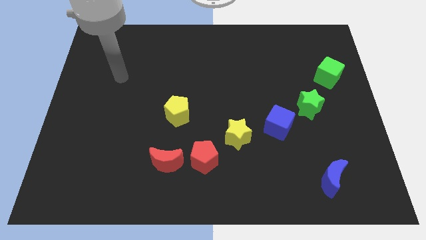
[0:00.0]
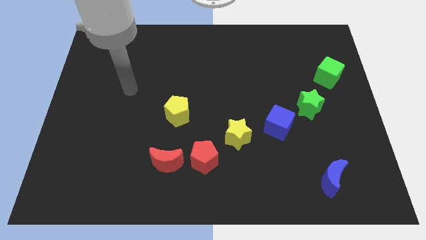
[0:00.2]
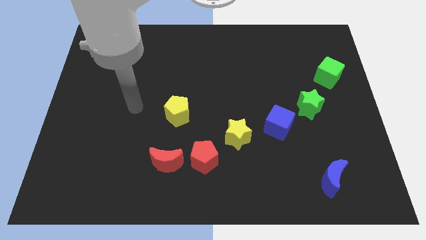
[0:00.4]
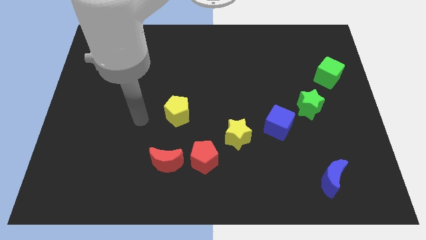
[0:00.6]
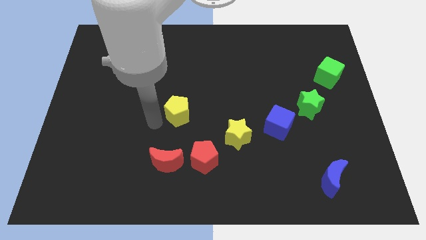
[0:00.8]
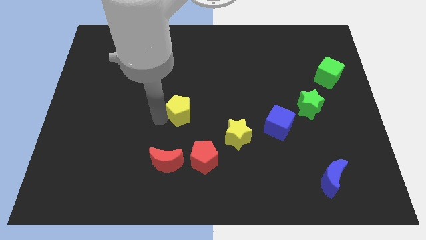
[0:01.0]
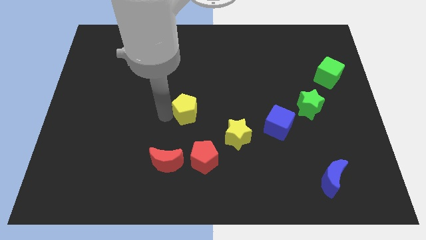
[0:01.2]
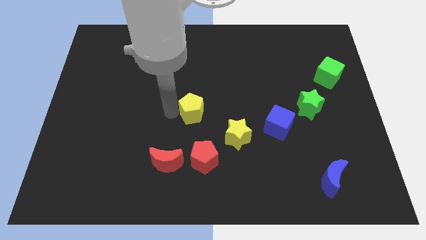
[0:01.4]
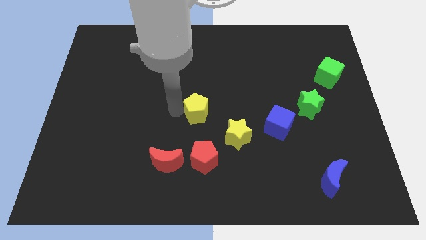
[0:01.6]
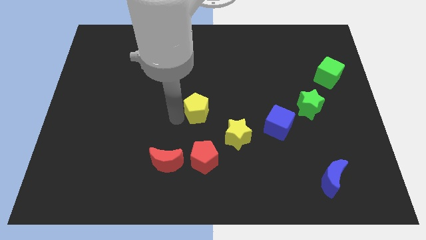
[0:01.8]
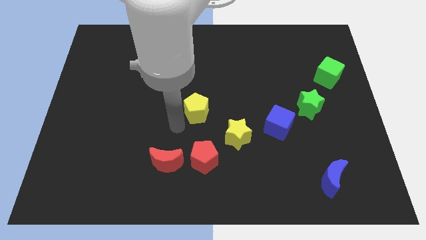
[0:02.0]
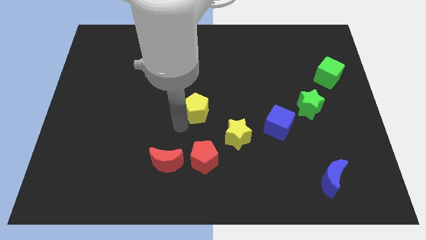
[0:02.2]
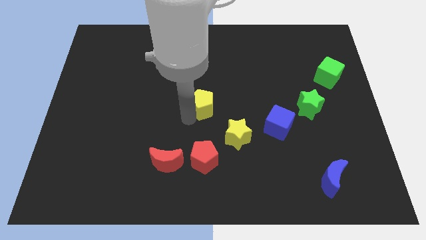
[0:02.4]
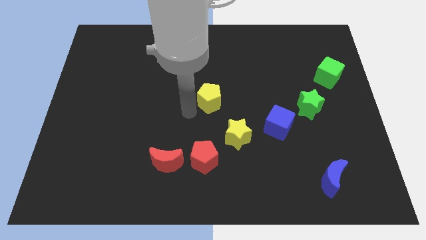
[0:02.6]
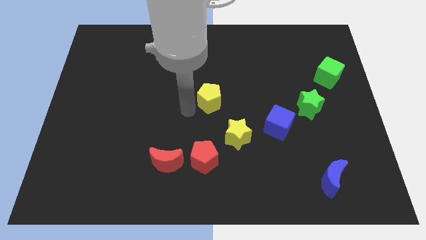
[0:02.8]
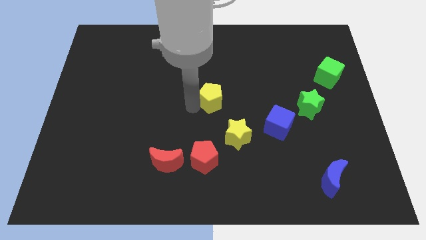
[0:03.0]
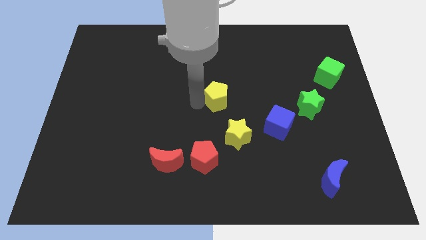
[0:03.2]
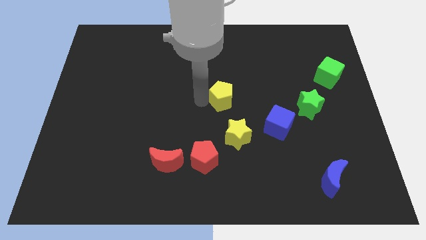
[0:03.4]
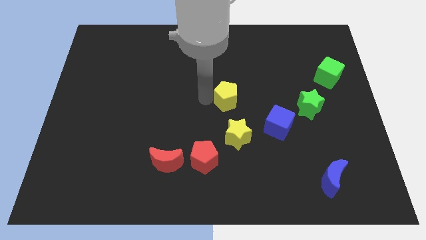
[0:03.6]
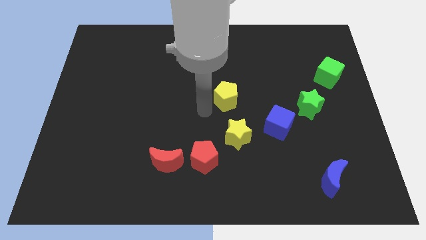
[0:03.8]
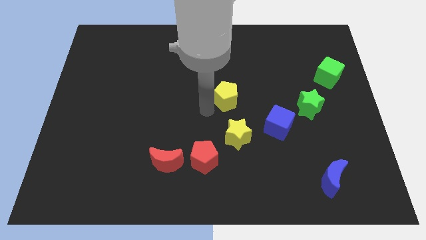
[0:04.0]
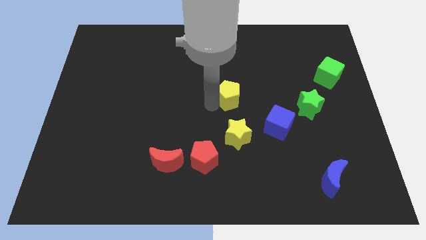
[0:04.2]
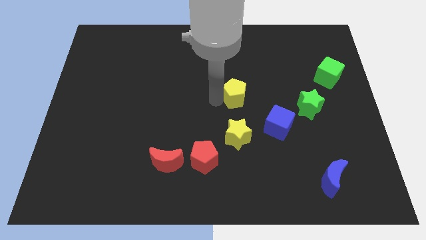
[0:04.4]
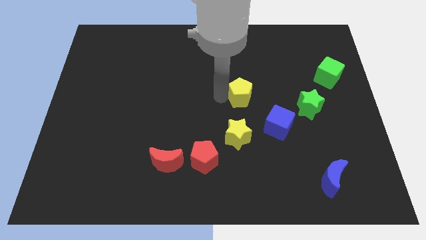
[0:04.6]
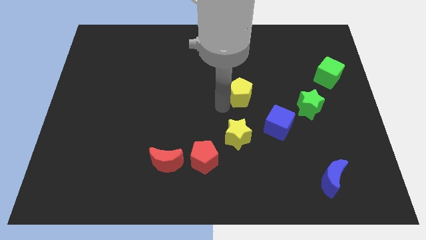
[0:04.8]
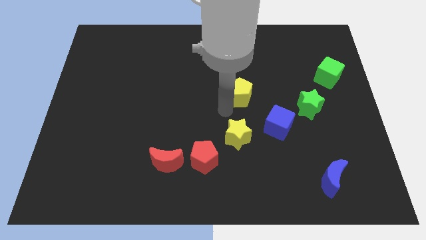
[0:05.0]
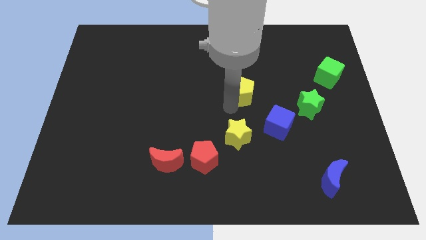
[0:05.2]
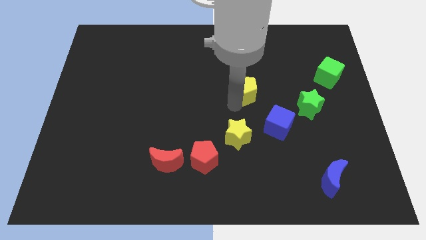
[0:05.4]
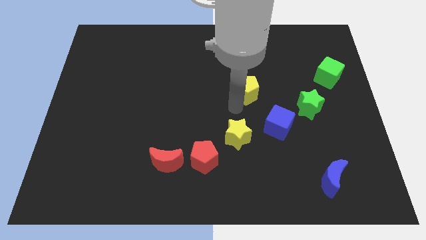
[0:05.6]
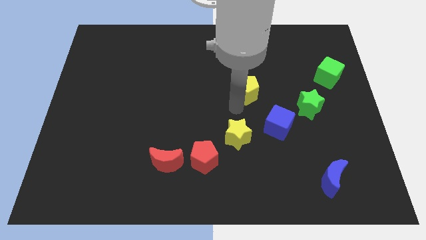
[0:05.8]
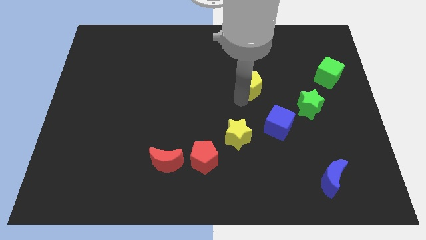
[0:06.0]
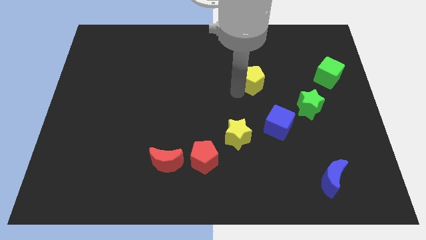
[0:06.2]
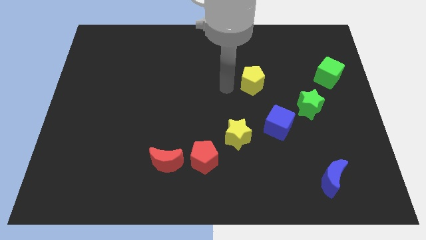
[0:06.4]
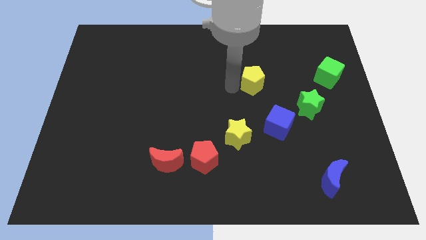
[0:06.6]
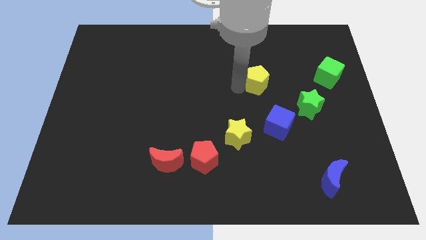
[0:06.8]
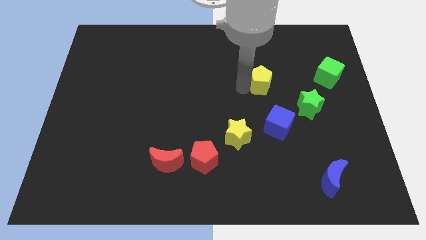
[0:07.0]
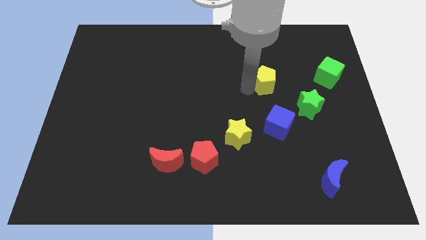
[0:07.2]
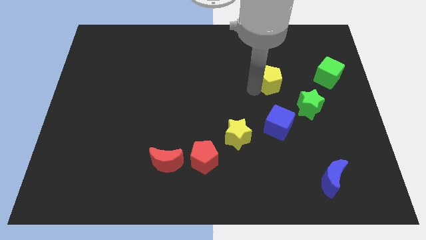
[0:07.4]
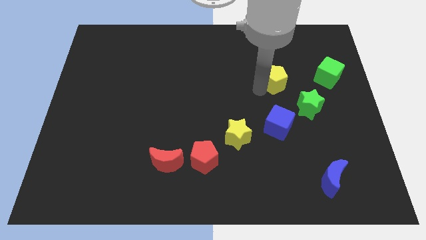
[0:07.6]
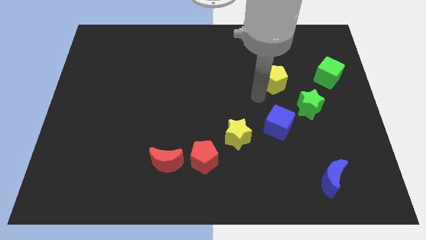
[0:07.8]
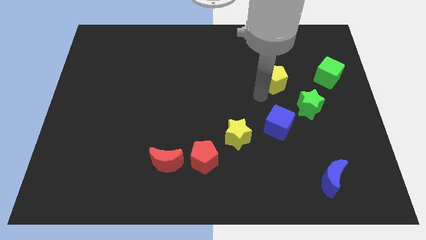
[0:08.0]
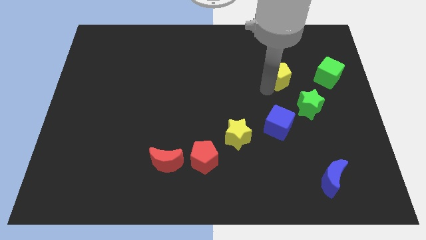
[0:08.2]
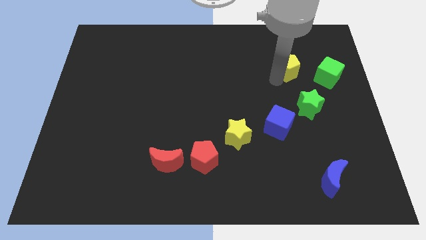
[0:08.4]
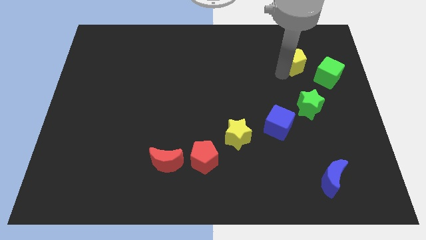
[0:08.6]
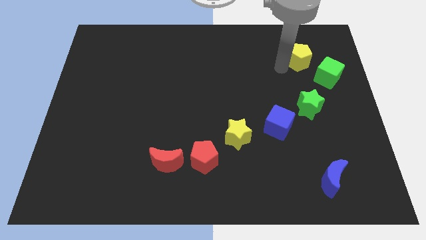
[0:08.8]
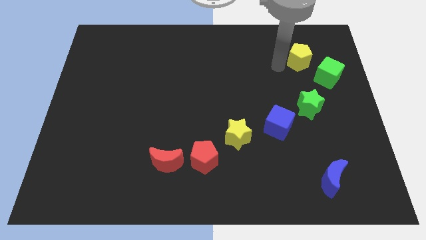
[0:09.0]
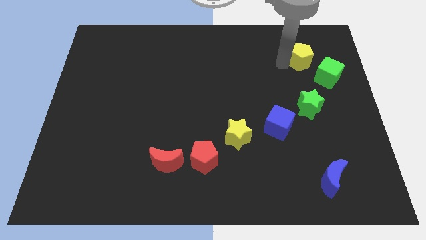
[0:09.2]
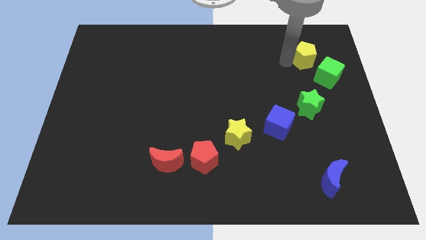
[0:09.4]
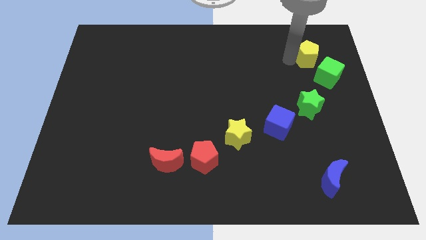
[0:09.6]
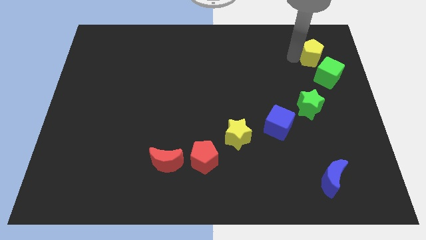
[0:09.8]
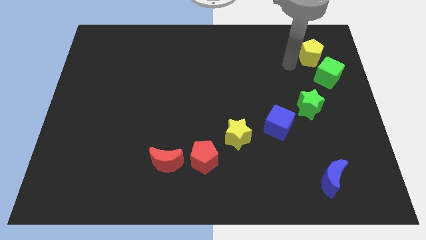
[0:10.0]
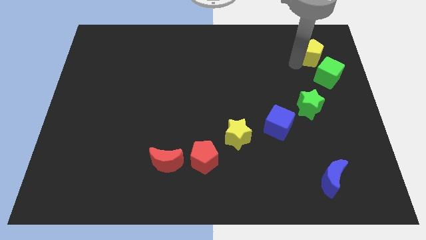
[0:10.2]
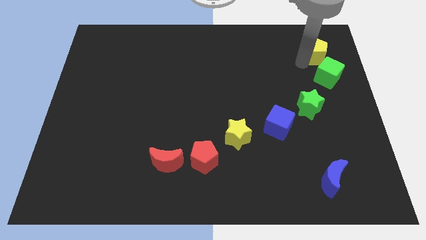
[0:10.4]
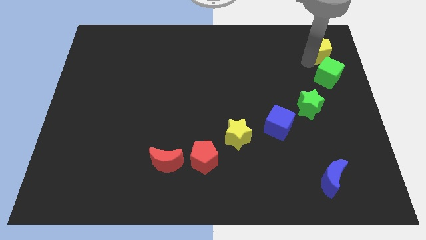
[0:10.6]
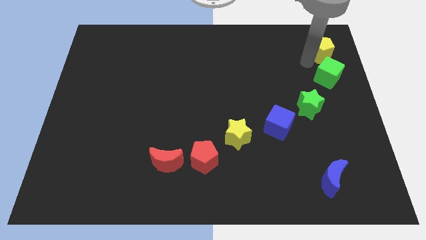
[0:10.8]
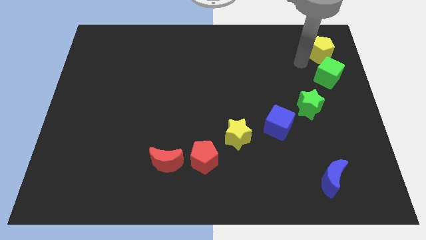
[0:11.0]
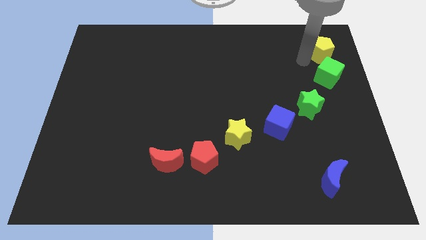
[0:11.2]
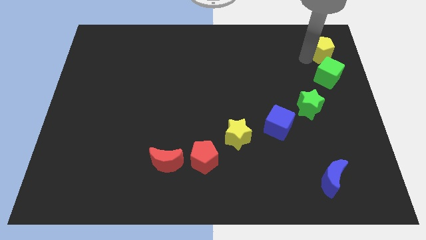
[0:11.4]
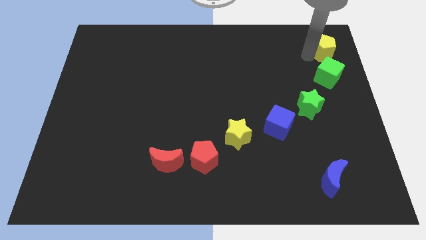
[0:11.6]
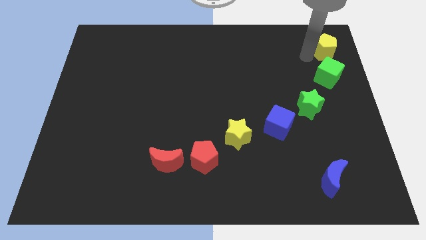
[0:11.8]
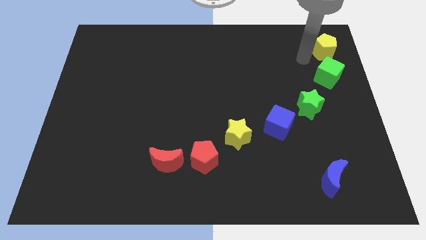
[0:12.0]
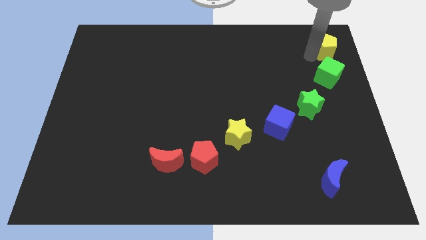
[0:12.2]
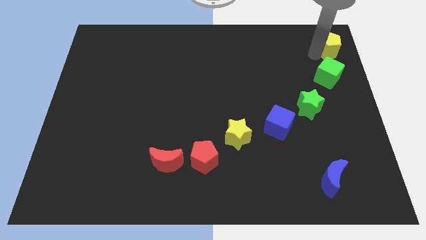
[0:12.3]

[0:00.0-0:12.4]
put the yellow pentagon to the top right of the board
